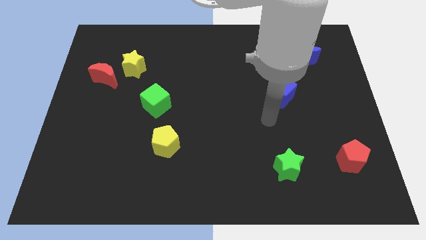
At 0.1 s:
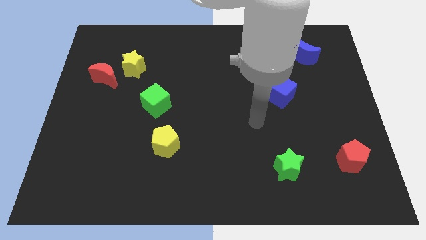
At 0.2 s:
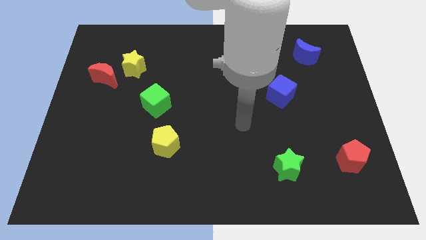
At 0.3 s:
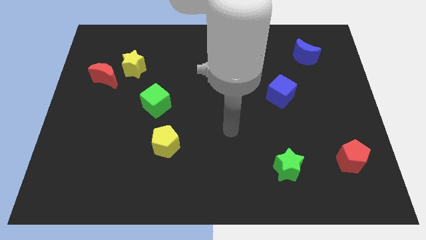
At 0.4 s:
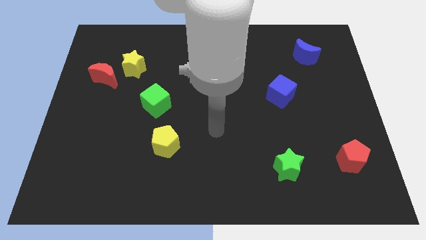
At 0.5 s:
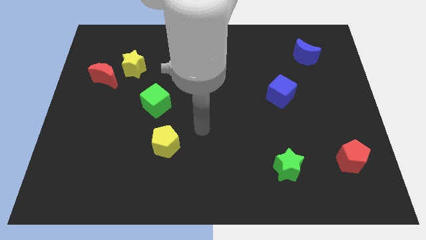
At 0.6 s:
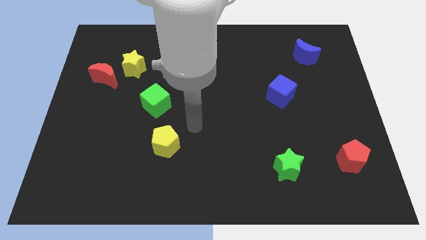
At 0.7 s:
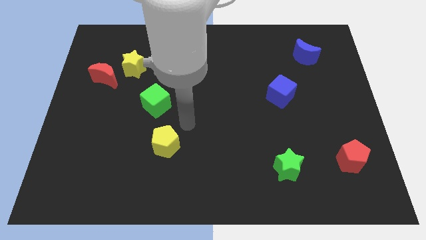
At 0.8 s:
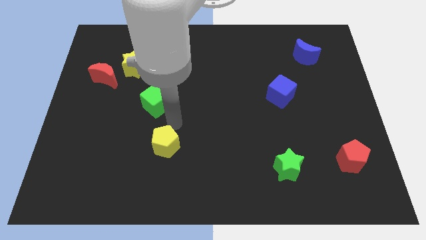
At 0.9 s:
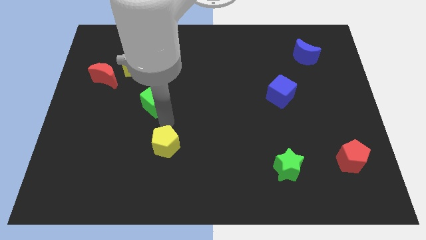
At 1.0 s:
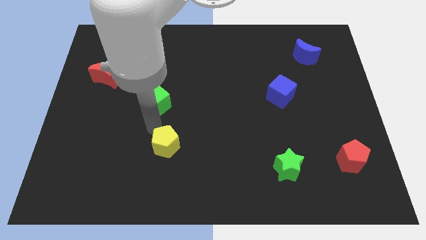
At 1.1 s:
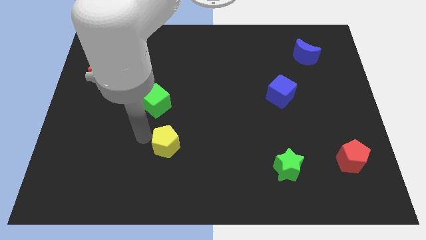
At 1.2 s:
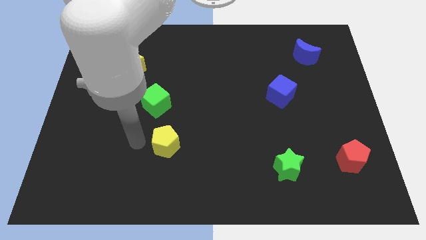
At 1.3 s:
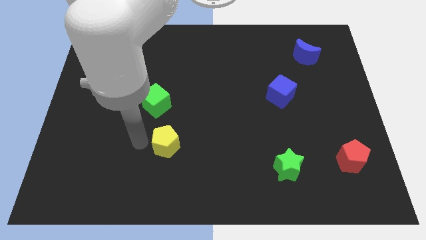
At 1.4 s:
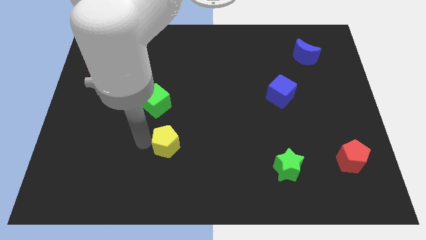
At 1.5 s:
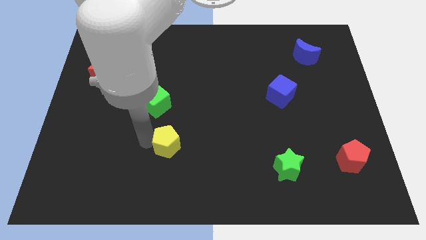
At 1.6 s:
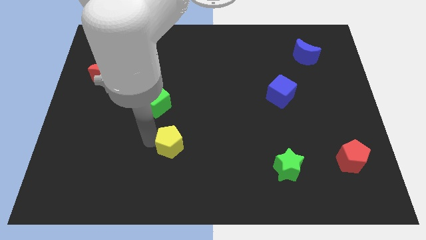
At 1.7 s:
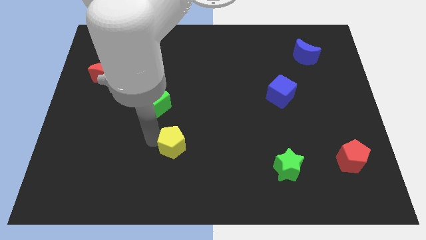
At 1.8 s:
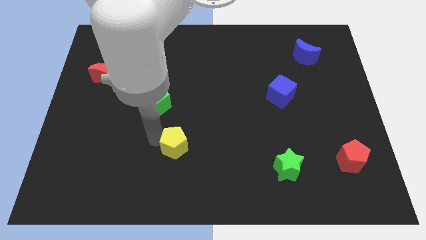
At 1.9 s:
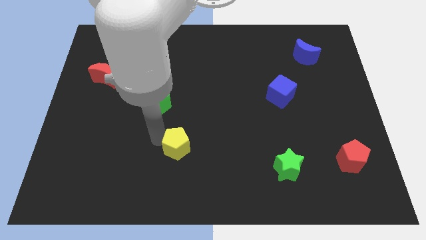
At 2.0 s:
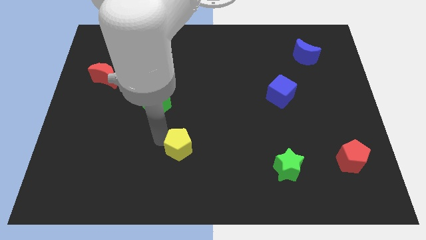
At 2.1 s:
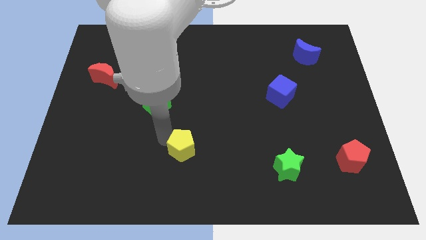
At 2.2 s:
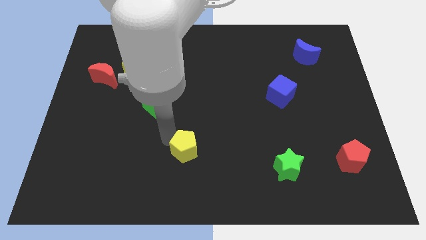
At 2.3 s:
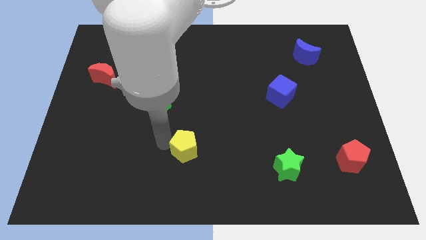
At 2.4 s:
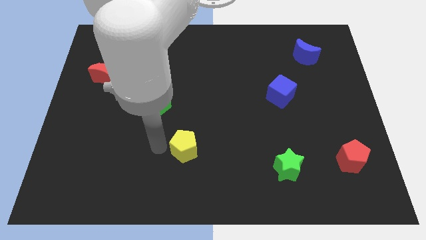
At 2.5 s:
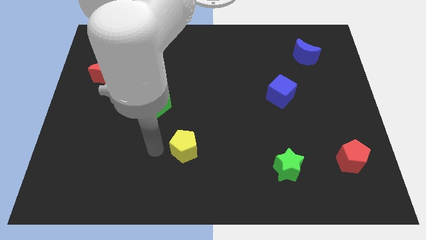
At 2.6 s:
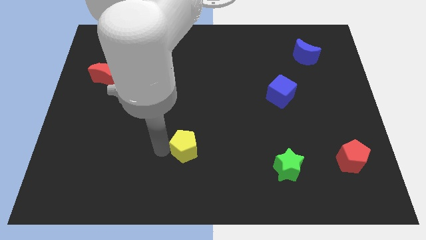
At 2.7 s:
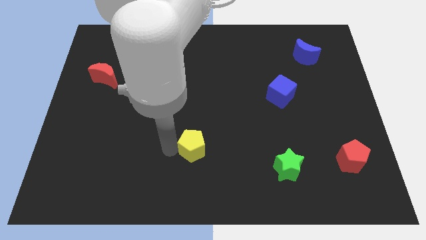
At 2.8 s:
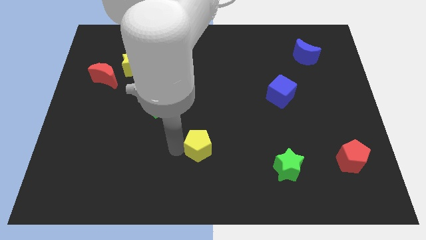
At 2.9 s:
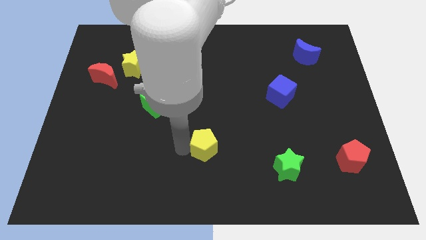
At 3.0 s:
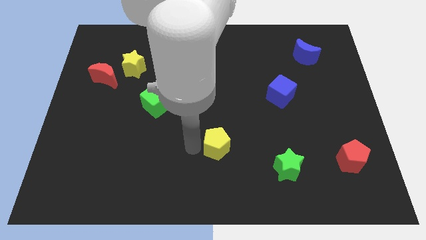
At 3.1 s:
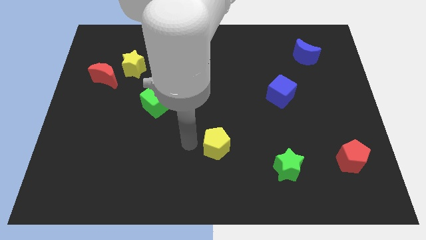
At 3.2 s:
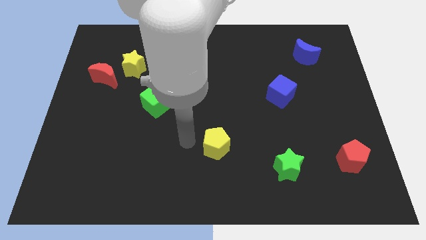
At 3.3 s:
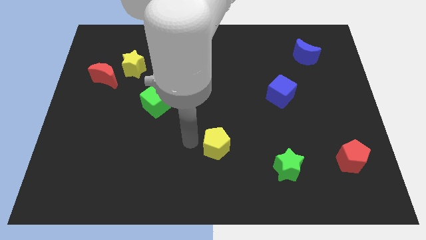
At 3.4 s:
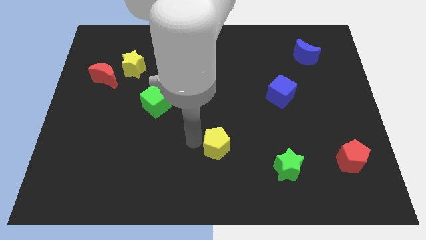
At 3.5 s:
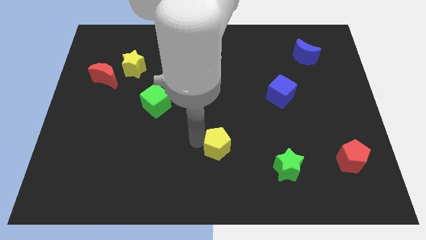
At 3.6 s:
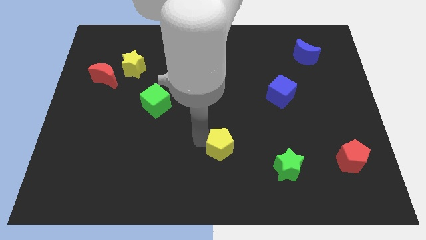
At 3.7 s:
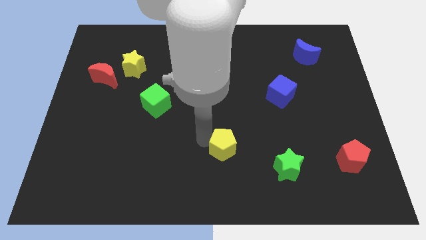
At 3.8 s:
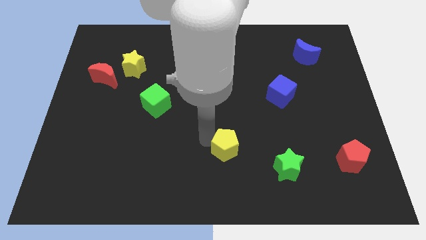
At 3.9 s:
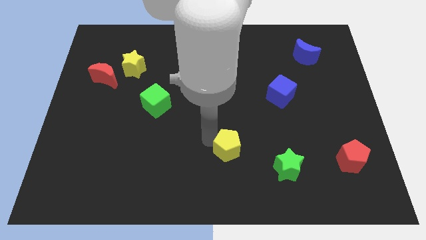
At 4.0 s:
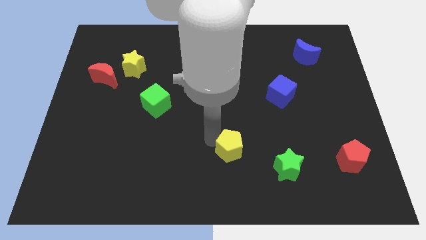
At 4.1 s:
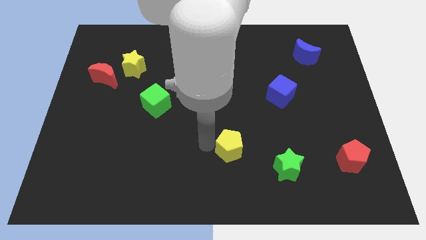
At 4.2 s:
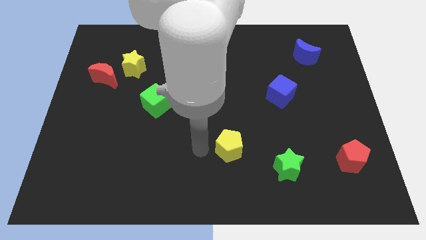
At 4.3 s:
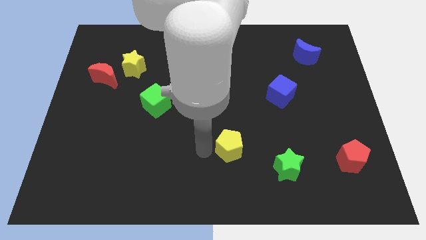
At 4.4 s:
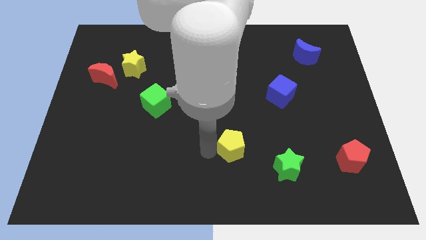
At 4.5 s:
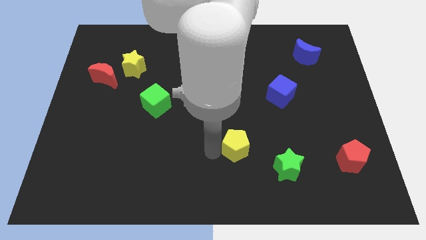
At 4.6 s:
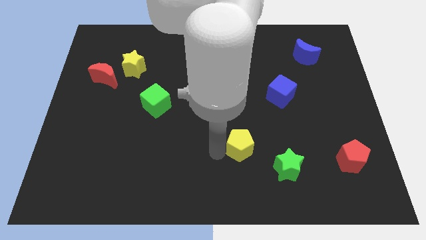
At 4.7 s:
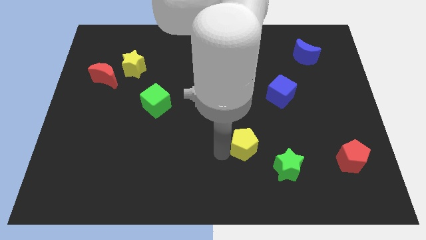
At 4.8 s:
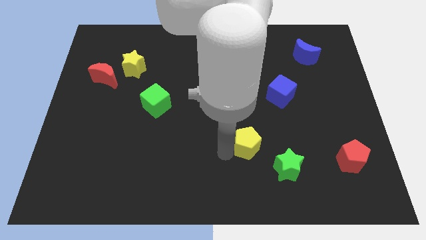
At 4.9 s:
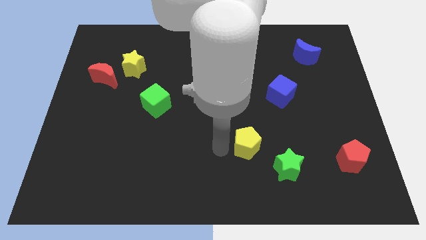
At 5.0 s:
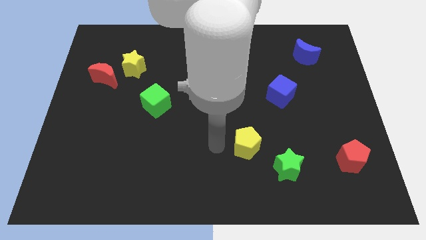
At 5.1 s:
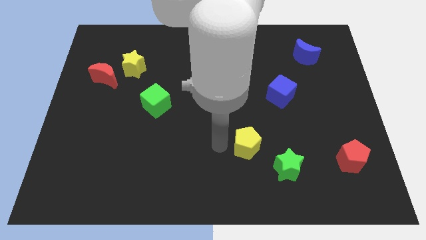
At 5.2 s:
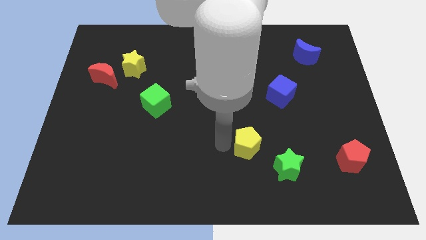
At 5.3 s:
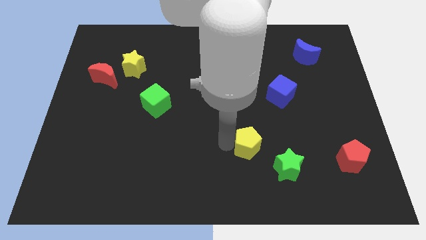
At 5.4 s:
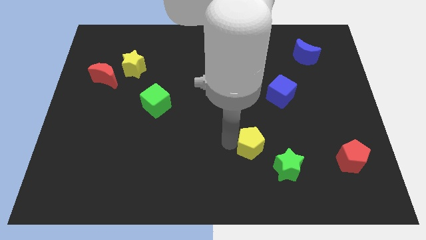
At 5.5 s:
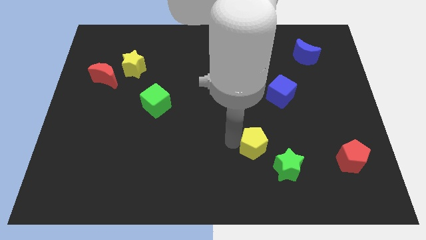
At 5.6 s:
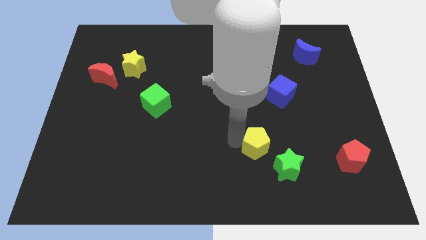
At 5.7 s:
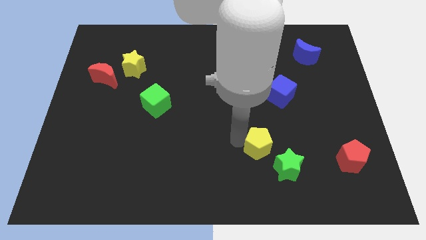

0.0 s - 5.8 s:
slide the yellow pentagon to the right

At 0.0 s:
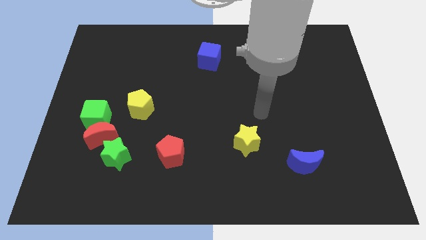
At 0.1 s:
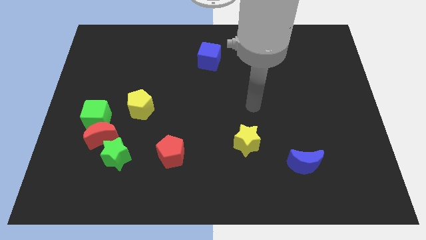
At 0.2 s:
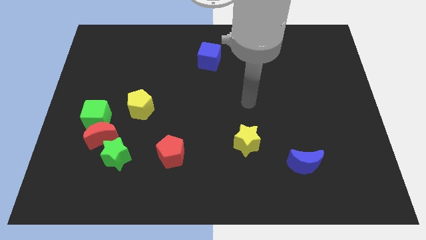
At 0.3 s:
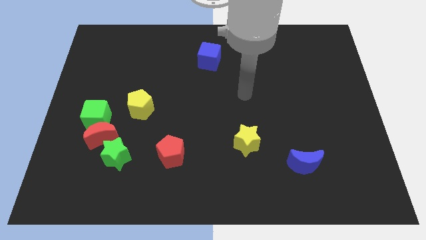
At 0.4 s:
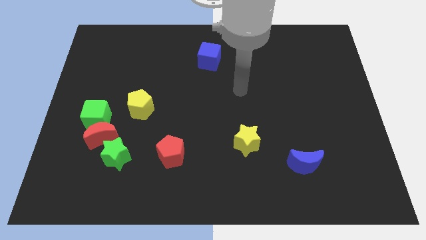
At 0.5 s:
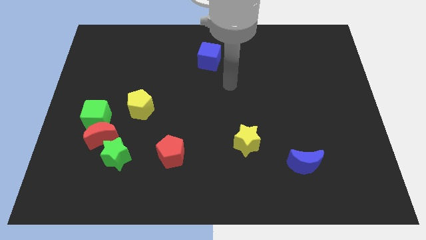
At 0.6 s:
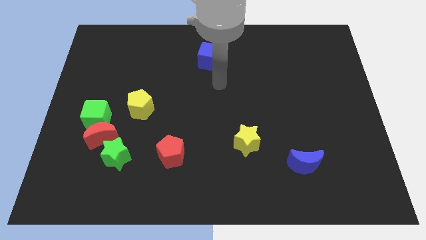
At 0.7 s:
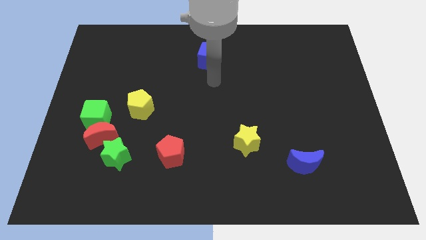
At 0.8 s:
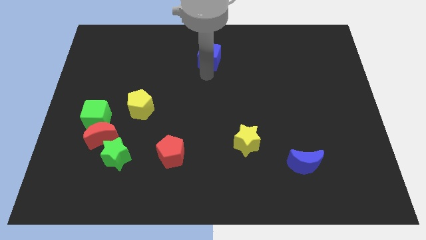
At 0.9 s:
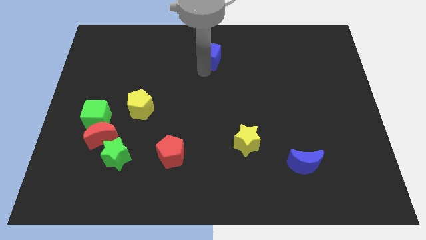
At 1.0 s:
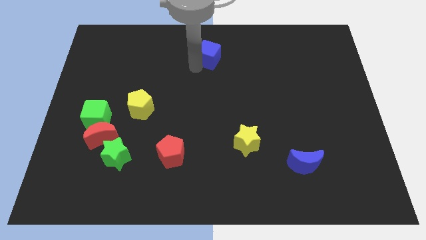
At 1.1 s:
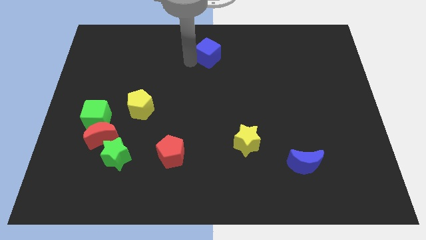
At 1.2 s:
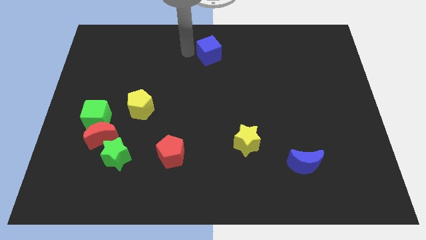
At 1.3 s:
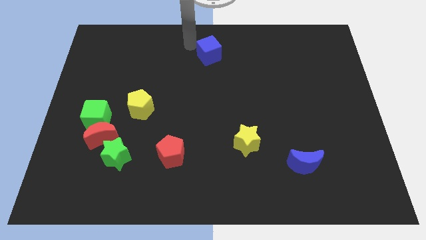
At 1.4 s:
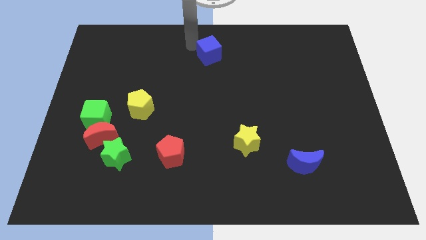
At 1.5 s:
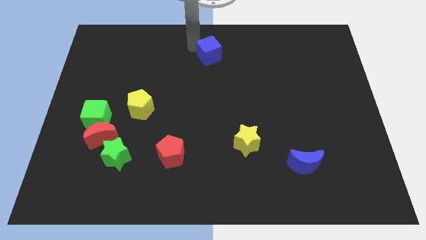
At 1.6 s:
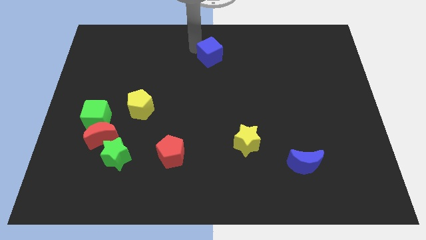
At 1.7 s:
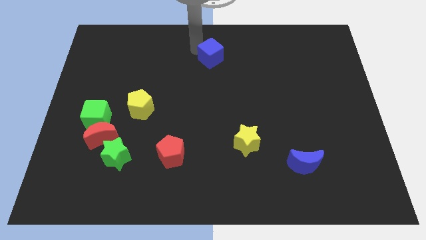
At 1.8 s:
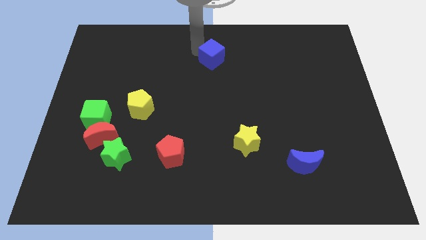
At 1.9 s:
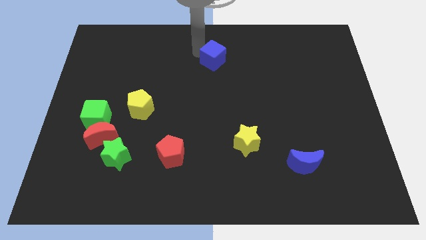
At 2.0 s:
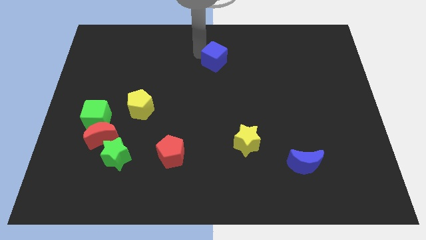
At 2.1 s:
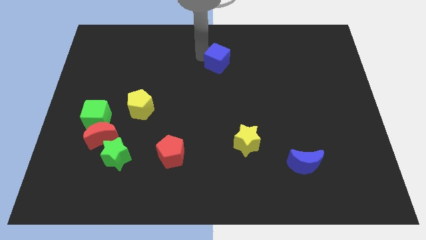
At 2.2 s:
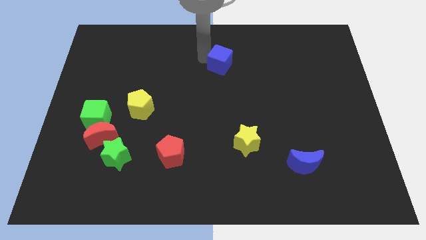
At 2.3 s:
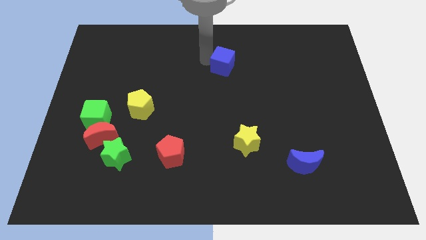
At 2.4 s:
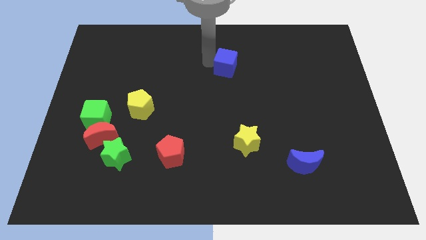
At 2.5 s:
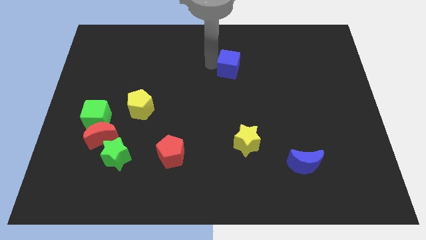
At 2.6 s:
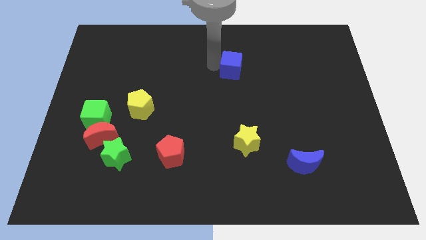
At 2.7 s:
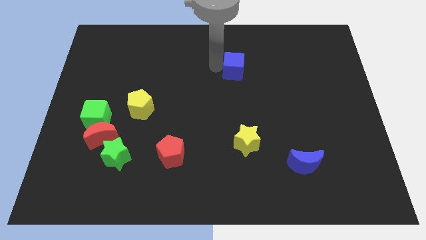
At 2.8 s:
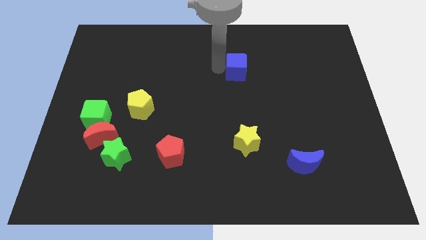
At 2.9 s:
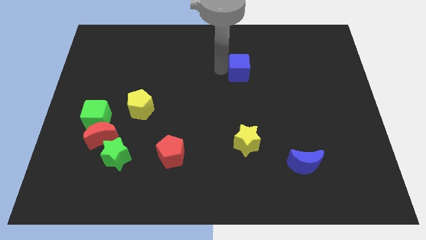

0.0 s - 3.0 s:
slide the blue cube right a little
